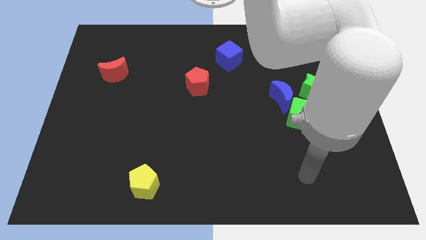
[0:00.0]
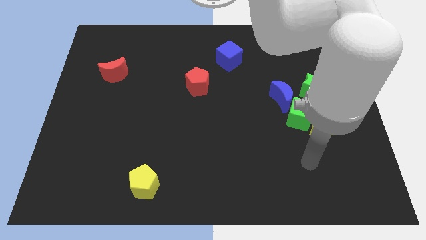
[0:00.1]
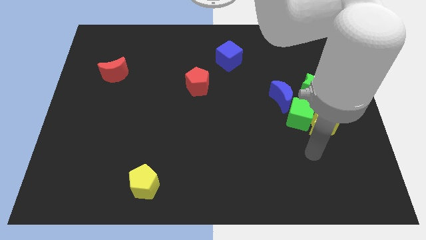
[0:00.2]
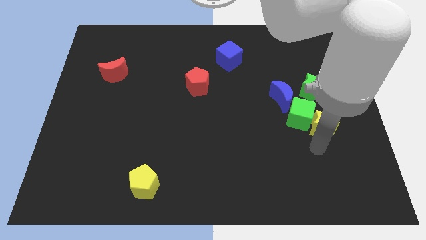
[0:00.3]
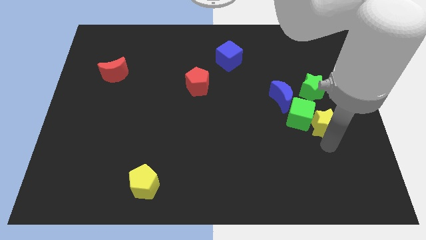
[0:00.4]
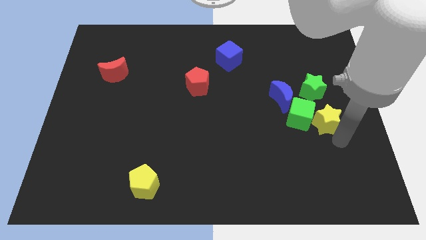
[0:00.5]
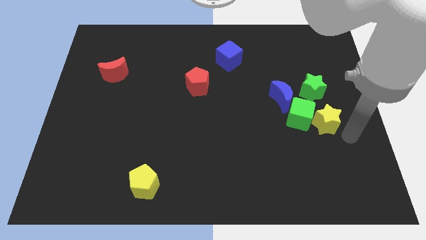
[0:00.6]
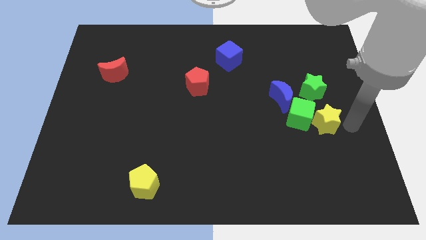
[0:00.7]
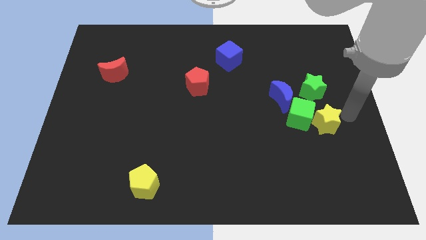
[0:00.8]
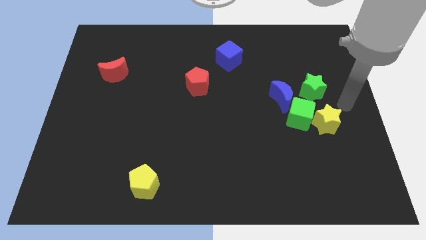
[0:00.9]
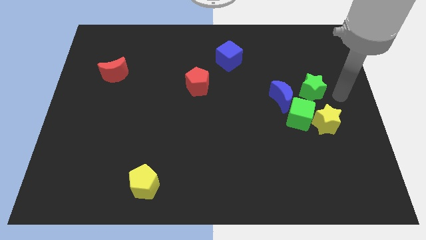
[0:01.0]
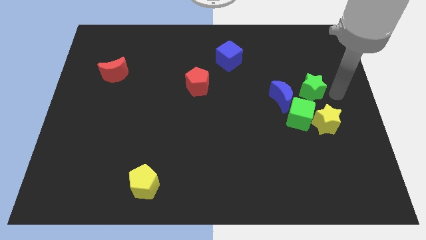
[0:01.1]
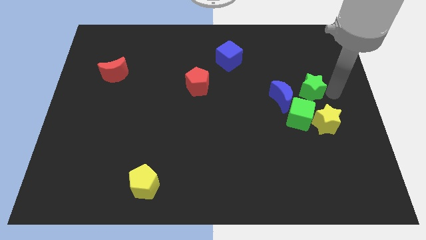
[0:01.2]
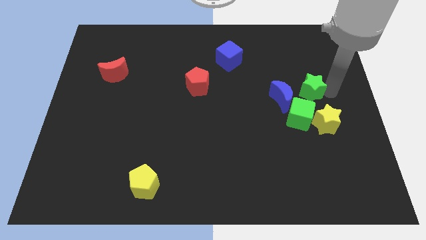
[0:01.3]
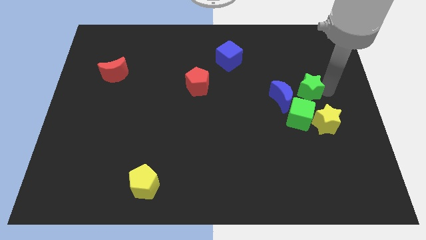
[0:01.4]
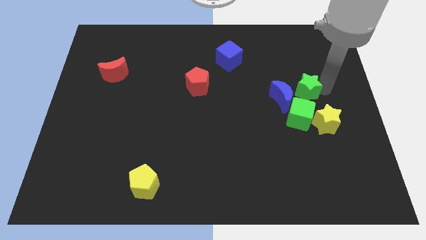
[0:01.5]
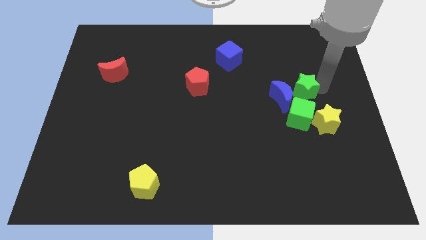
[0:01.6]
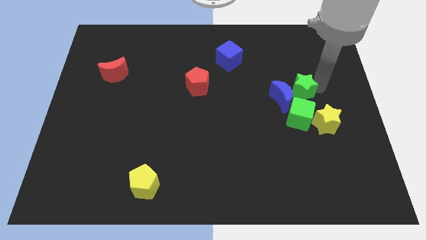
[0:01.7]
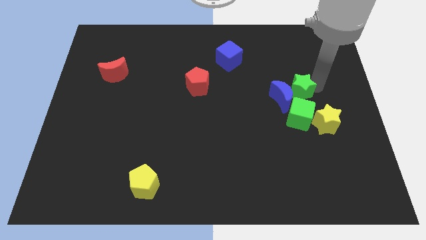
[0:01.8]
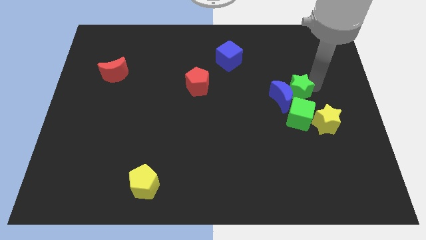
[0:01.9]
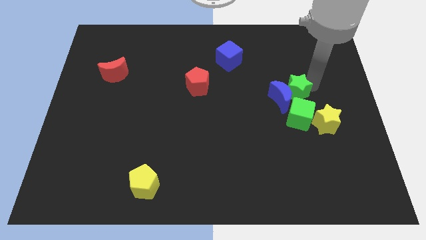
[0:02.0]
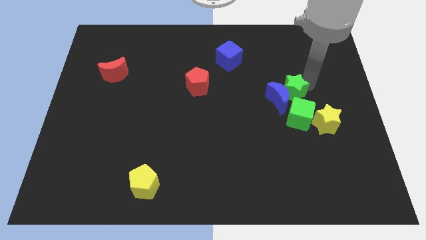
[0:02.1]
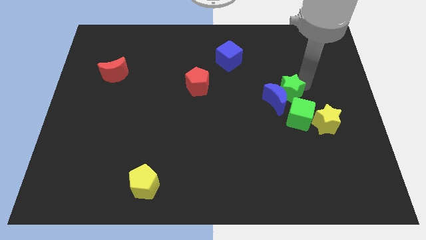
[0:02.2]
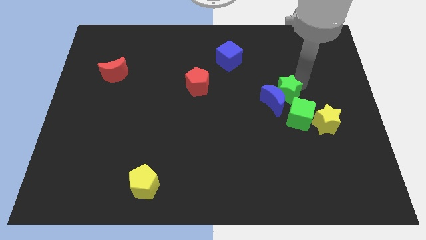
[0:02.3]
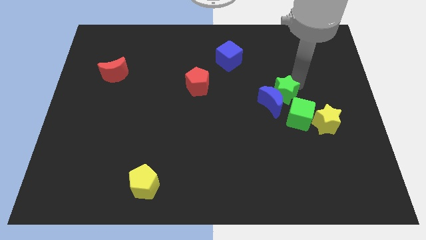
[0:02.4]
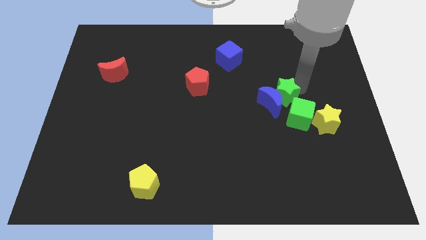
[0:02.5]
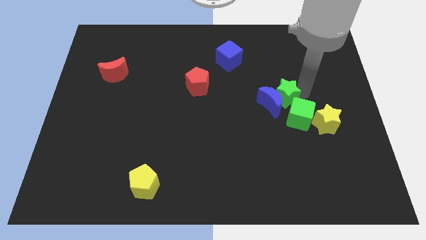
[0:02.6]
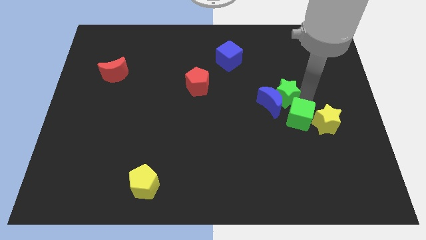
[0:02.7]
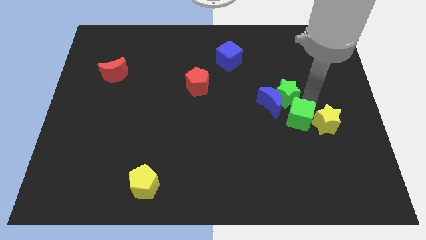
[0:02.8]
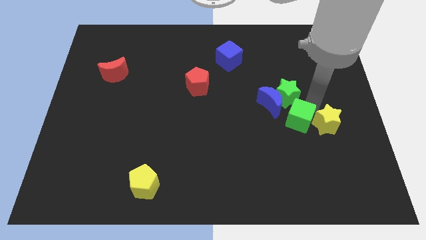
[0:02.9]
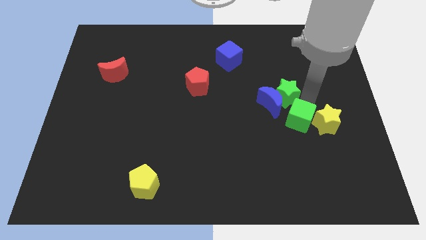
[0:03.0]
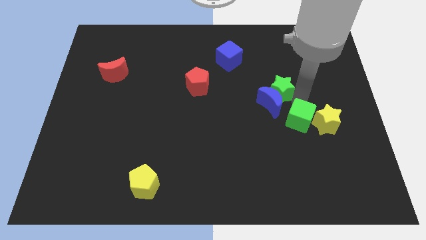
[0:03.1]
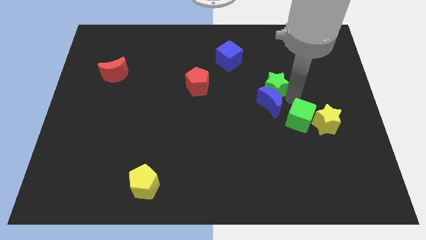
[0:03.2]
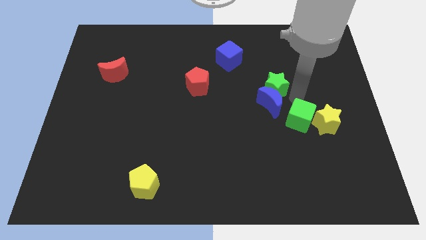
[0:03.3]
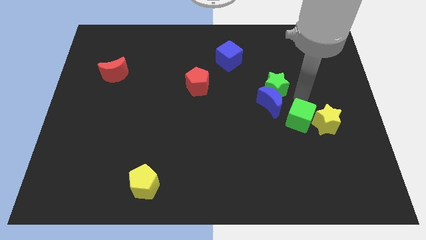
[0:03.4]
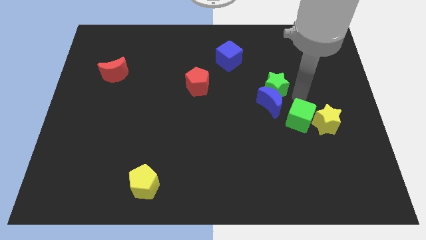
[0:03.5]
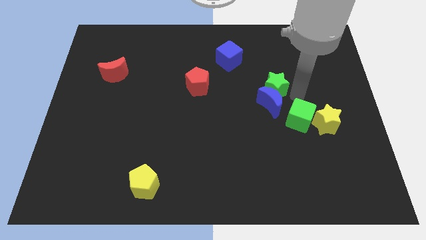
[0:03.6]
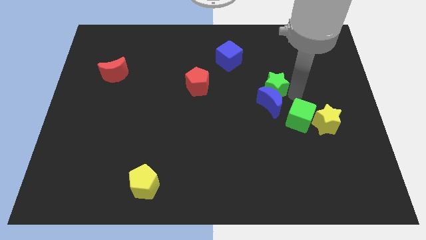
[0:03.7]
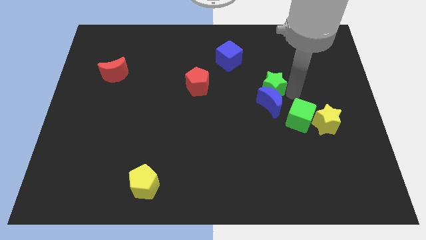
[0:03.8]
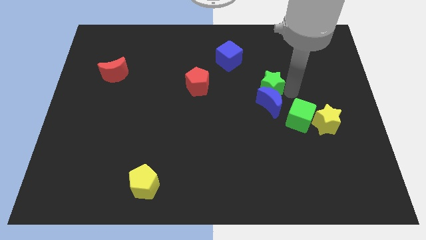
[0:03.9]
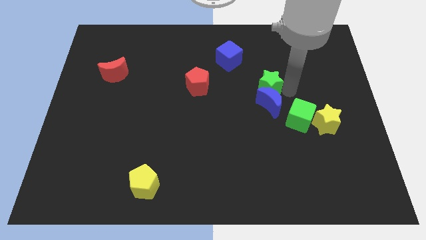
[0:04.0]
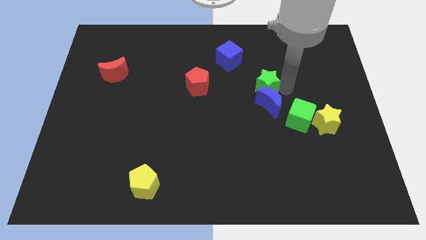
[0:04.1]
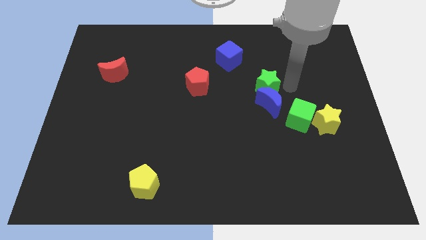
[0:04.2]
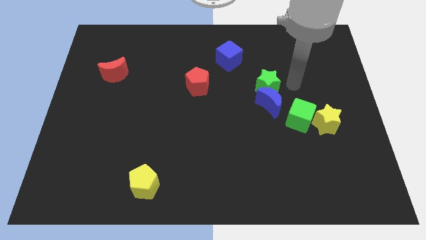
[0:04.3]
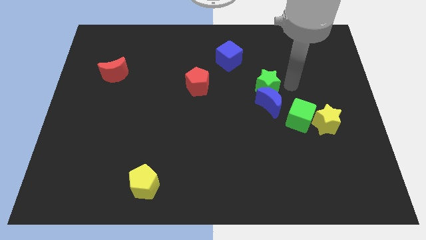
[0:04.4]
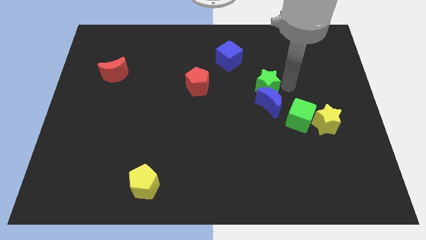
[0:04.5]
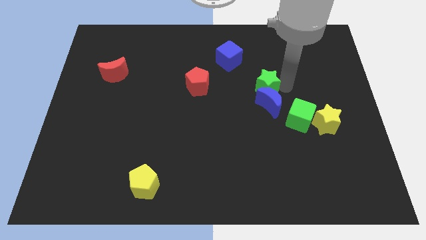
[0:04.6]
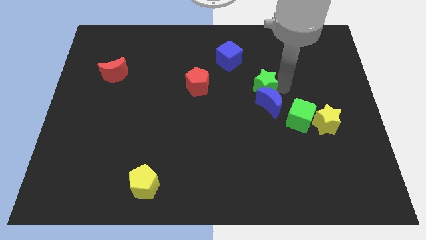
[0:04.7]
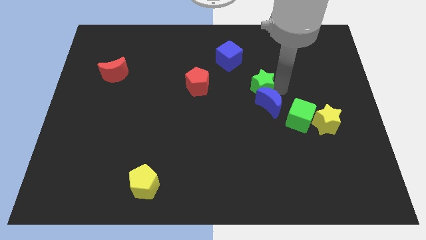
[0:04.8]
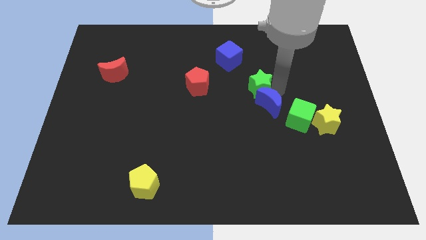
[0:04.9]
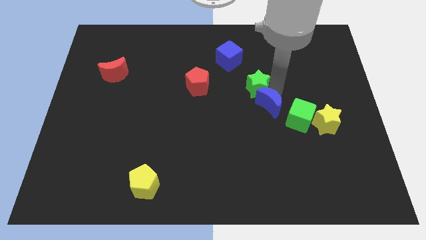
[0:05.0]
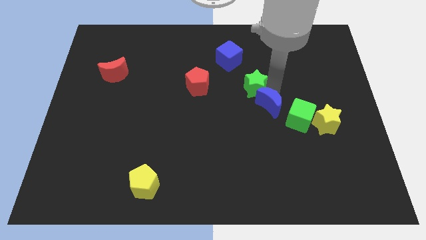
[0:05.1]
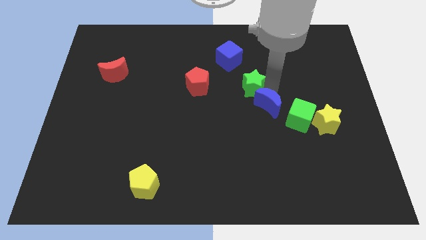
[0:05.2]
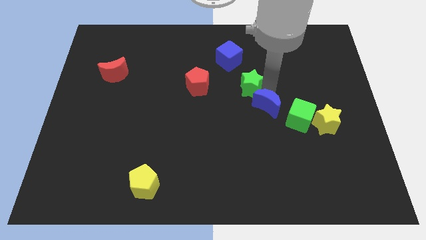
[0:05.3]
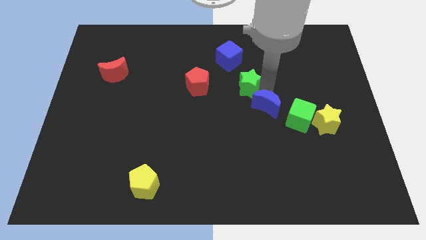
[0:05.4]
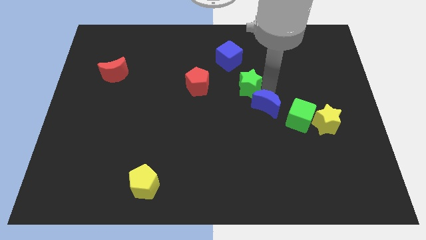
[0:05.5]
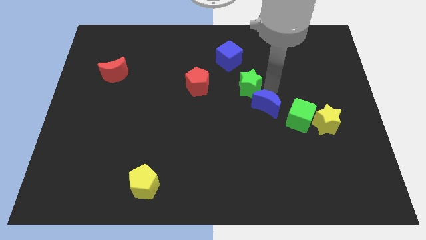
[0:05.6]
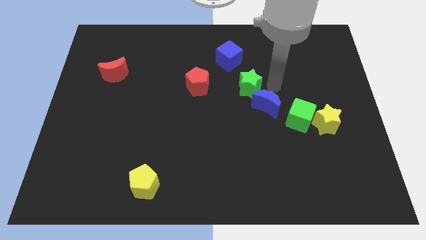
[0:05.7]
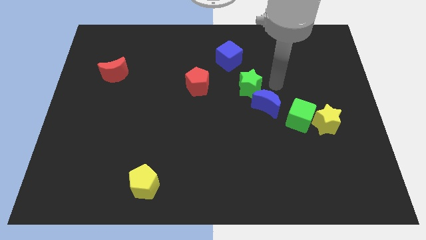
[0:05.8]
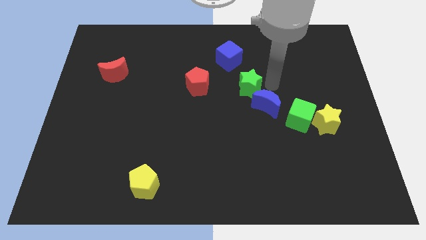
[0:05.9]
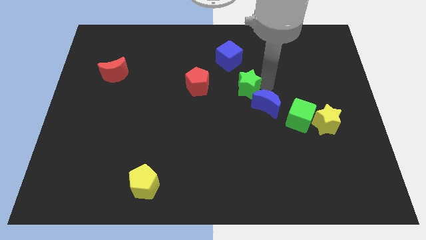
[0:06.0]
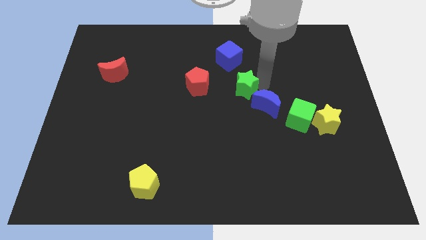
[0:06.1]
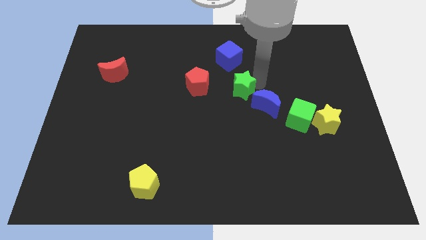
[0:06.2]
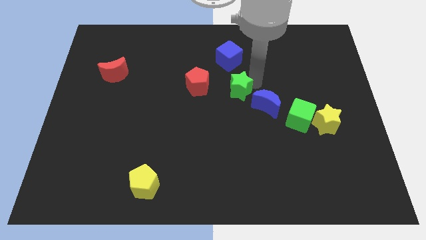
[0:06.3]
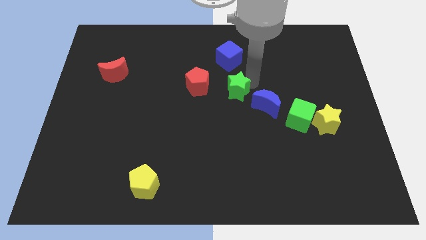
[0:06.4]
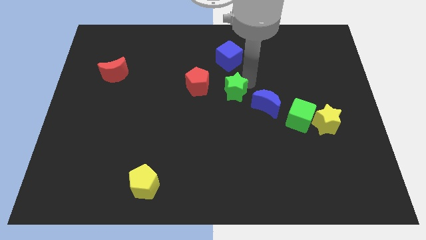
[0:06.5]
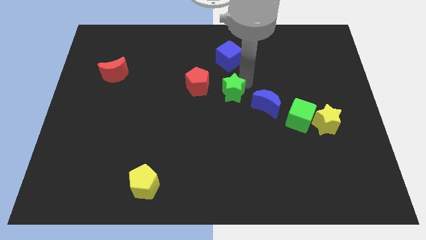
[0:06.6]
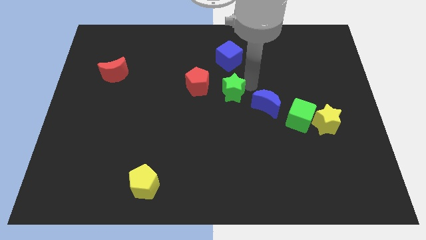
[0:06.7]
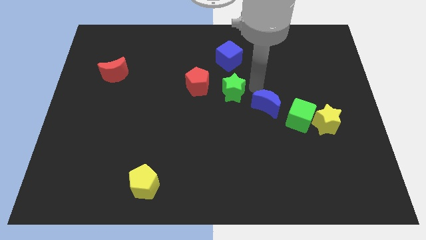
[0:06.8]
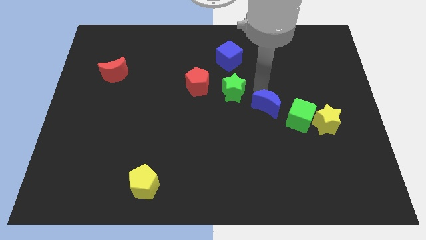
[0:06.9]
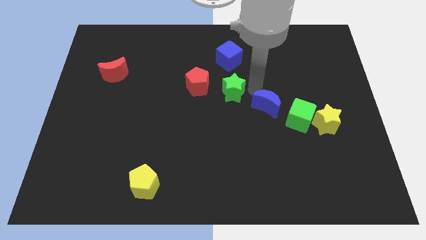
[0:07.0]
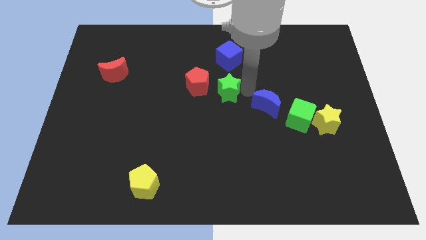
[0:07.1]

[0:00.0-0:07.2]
push the green star to the left

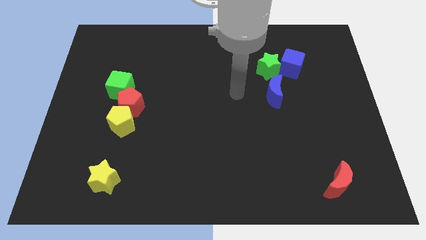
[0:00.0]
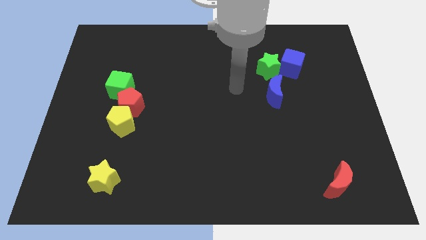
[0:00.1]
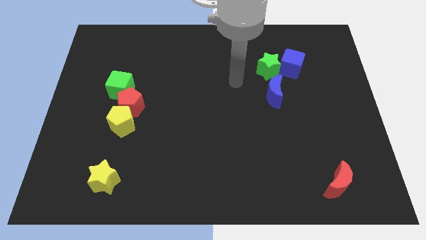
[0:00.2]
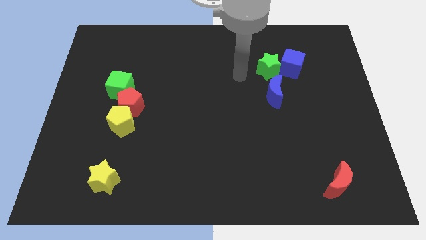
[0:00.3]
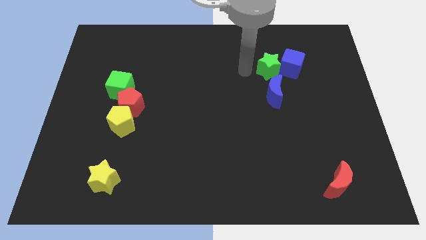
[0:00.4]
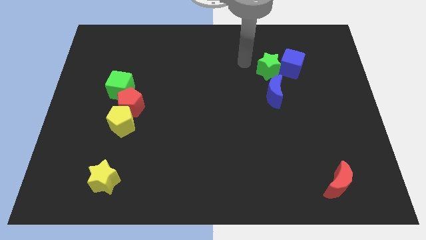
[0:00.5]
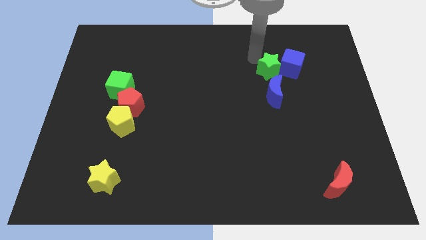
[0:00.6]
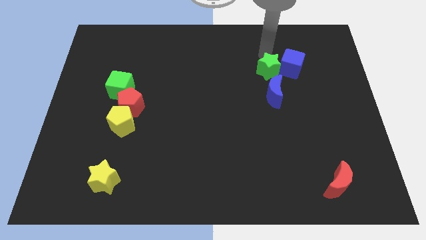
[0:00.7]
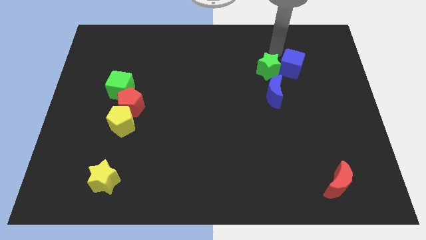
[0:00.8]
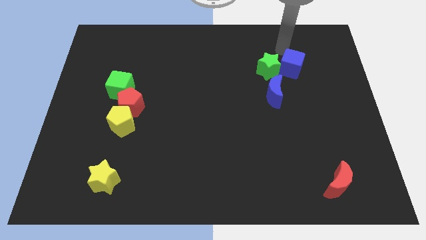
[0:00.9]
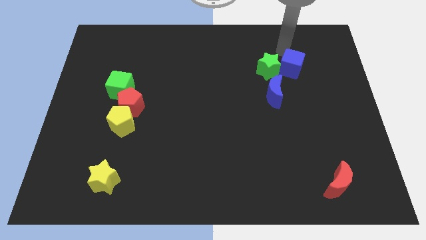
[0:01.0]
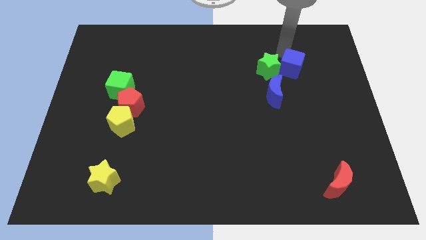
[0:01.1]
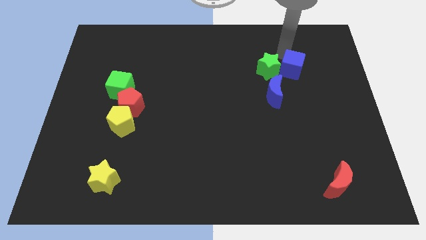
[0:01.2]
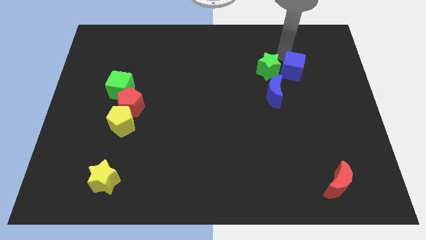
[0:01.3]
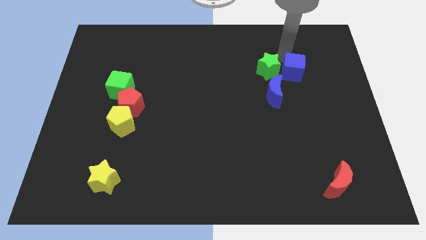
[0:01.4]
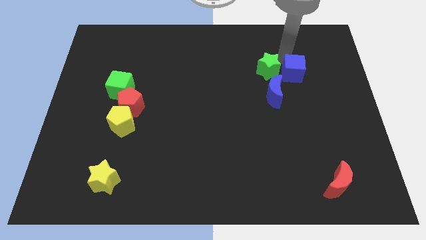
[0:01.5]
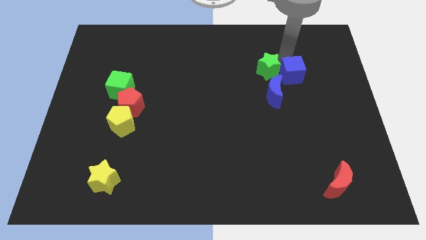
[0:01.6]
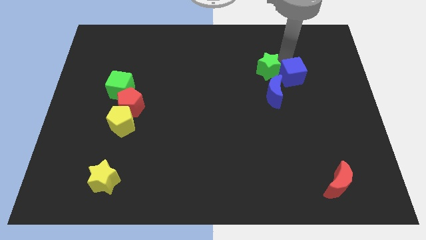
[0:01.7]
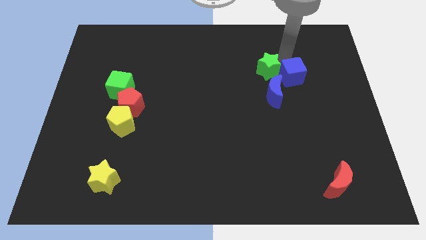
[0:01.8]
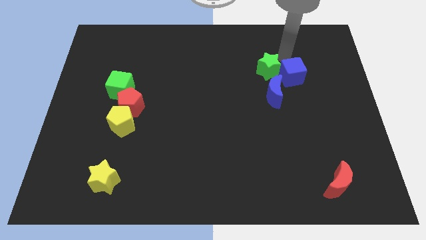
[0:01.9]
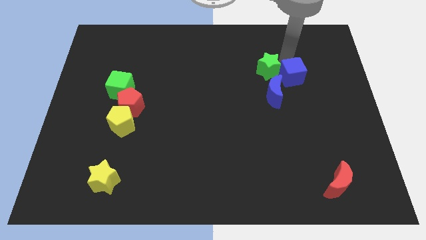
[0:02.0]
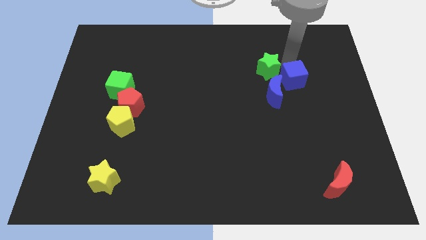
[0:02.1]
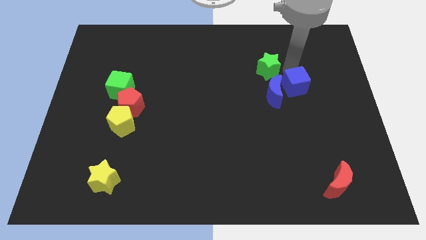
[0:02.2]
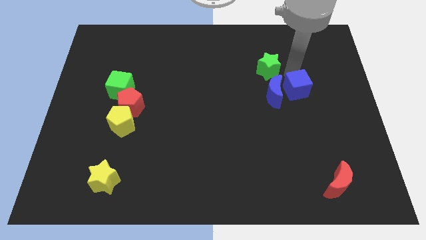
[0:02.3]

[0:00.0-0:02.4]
slightly slide the blue cube down
